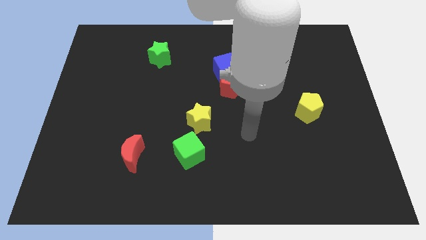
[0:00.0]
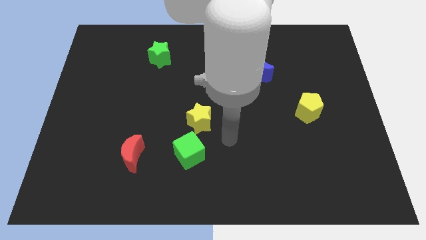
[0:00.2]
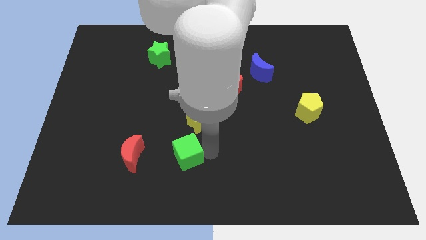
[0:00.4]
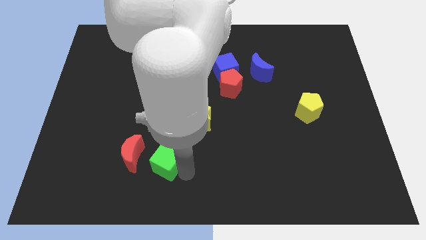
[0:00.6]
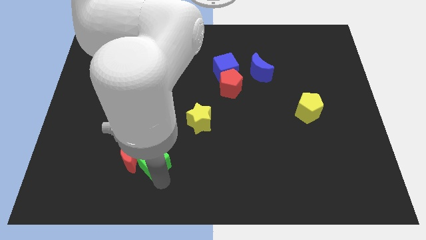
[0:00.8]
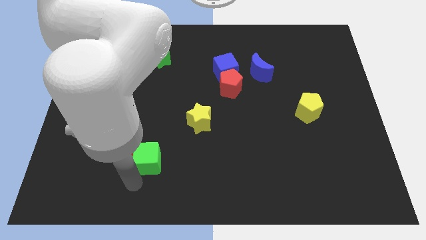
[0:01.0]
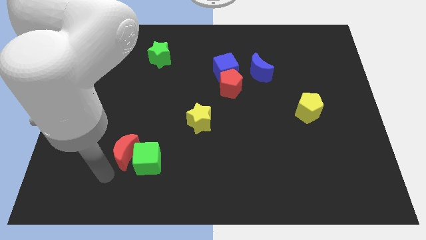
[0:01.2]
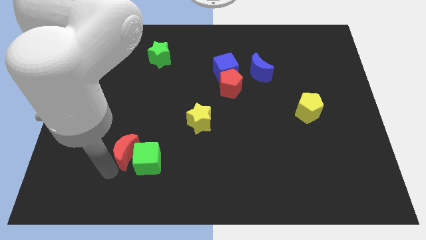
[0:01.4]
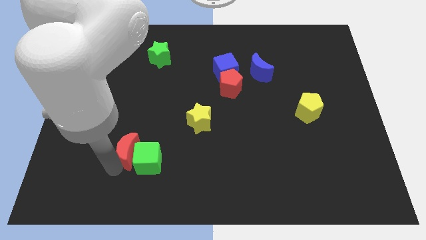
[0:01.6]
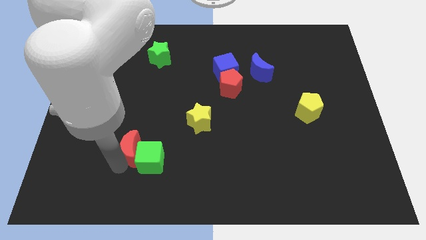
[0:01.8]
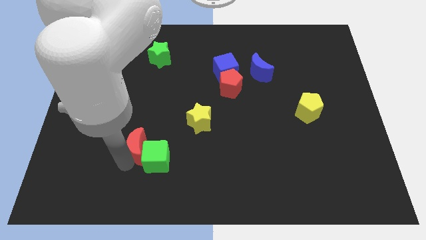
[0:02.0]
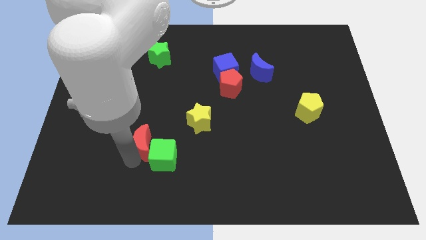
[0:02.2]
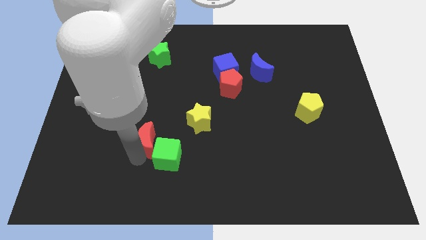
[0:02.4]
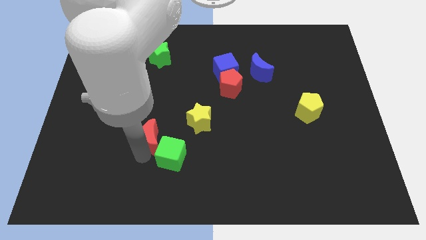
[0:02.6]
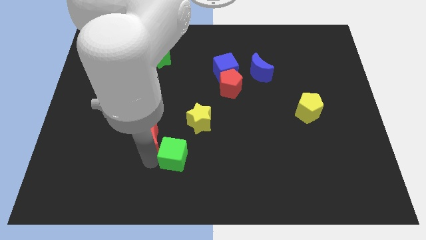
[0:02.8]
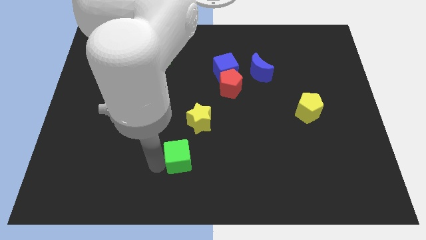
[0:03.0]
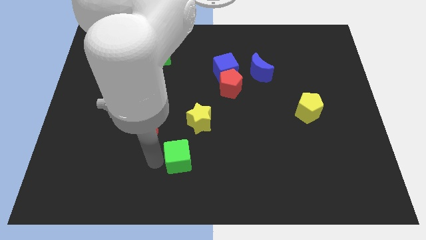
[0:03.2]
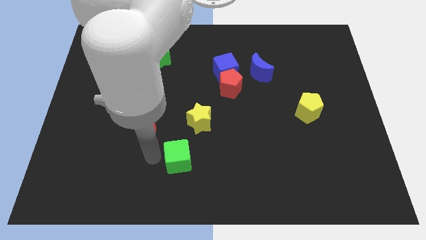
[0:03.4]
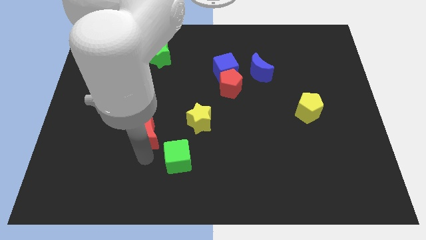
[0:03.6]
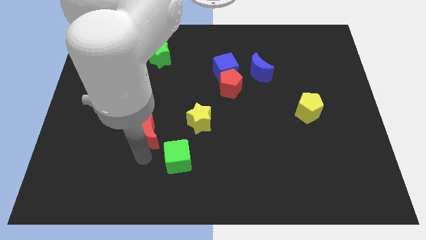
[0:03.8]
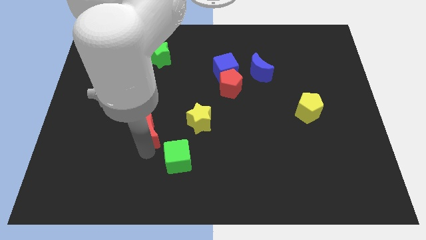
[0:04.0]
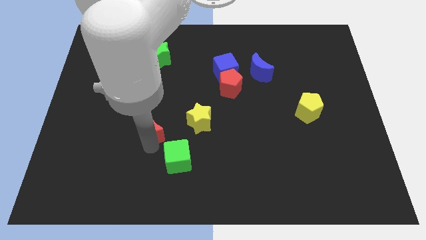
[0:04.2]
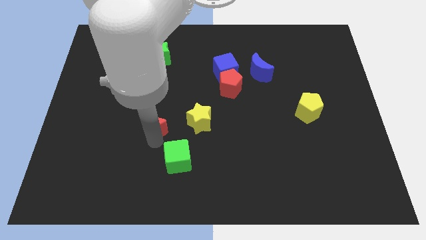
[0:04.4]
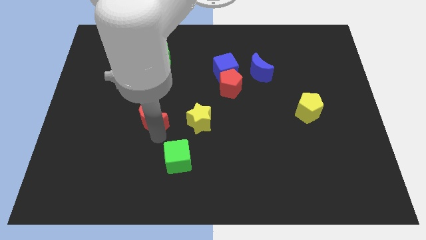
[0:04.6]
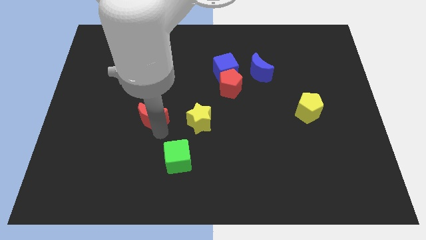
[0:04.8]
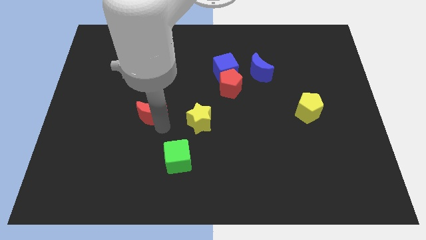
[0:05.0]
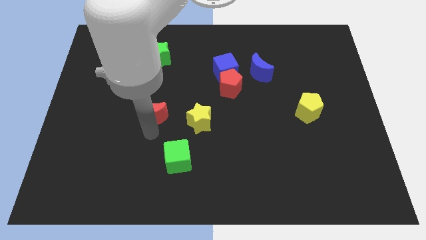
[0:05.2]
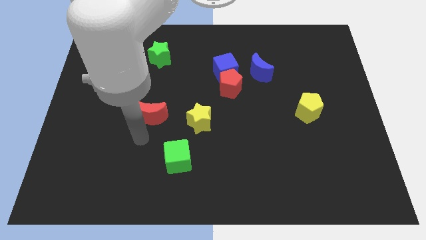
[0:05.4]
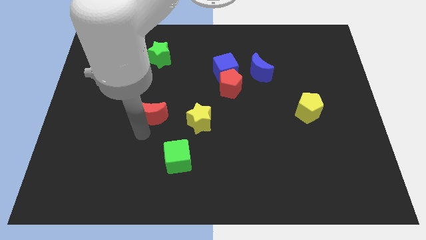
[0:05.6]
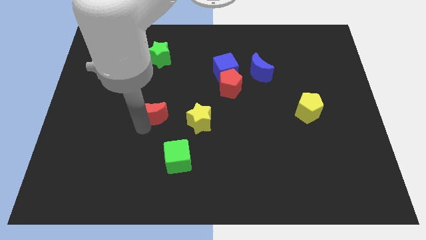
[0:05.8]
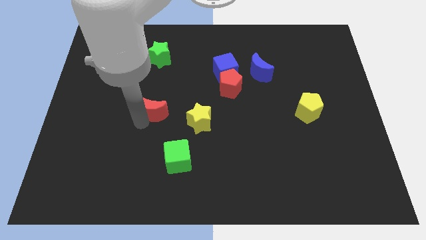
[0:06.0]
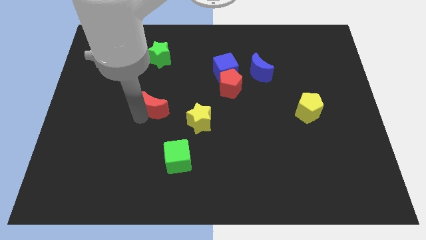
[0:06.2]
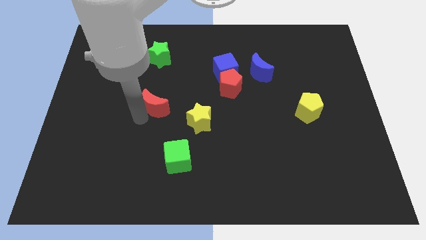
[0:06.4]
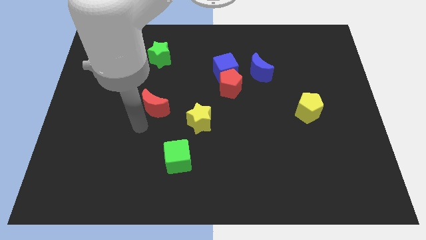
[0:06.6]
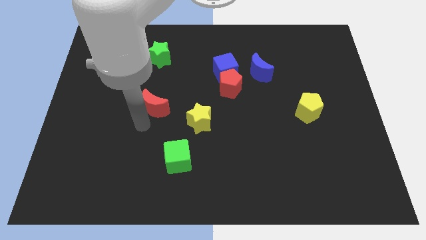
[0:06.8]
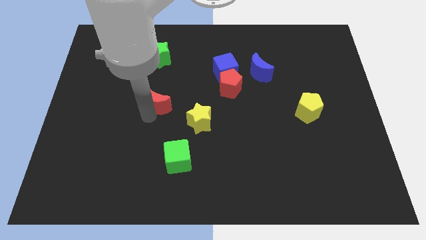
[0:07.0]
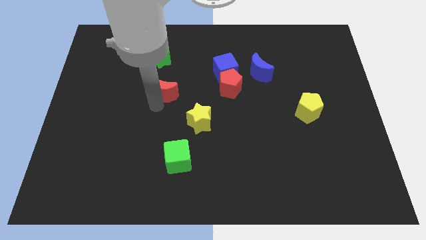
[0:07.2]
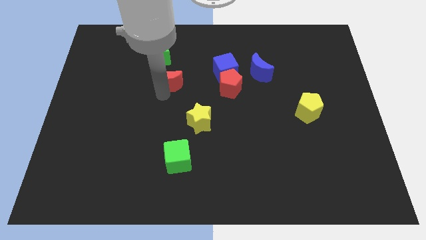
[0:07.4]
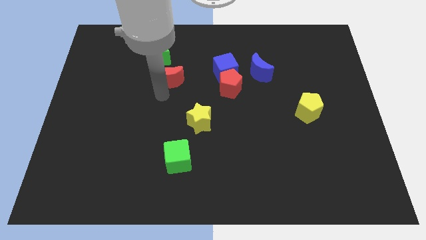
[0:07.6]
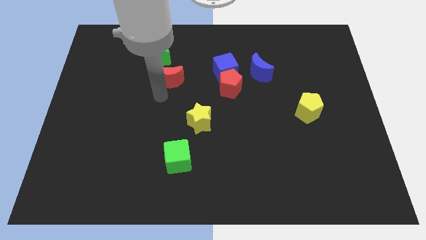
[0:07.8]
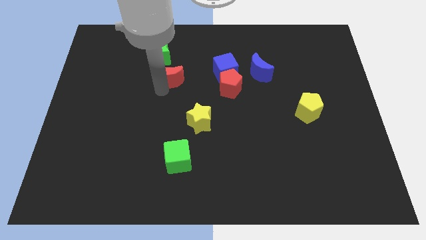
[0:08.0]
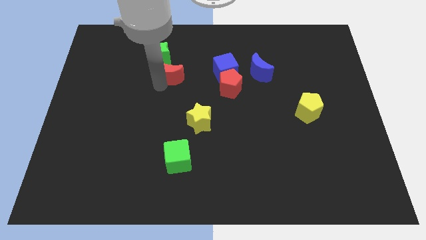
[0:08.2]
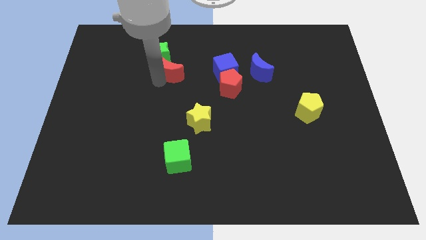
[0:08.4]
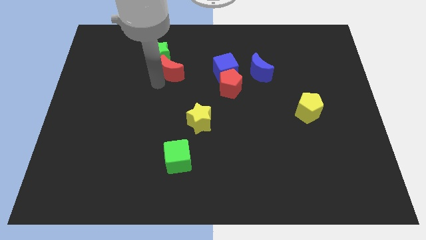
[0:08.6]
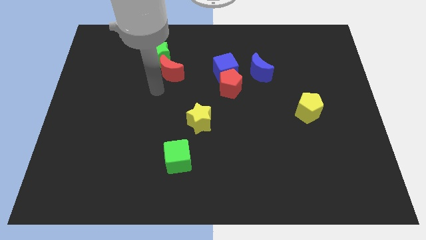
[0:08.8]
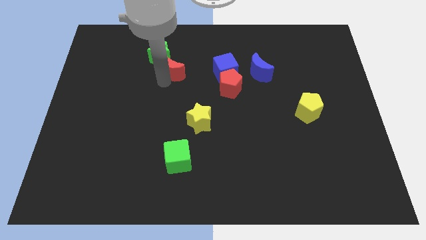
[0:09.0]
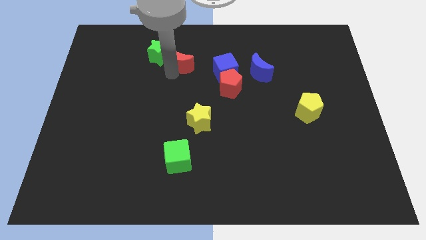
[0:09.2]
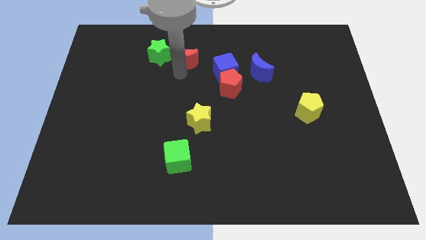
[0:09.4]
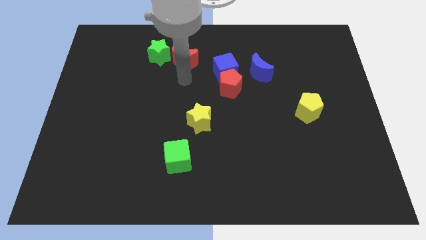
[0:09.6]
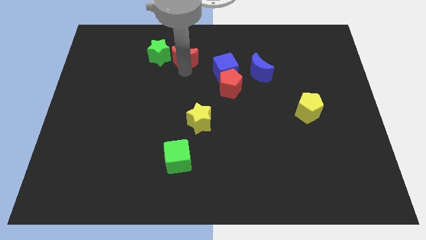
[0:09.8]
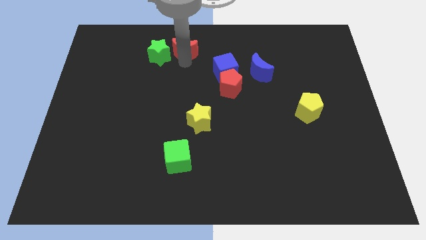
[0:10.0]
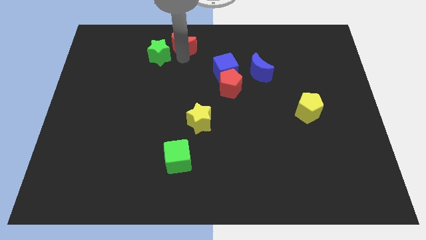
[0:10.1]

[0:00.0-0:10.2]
slide the red moon to the top side

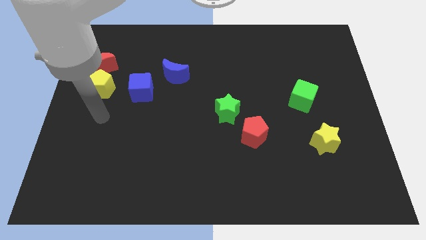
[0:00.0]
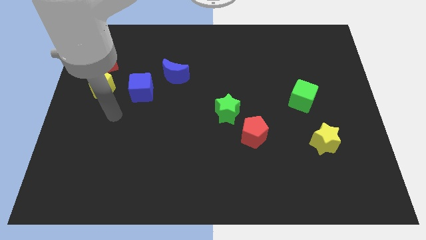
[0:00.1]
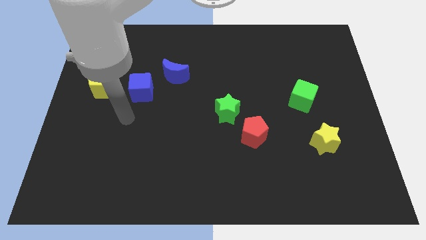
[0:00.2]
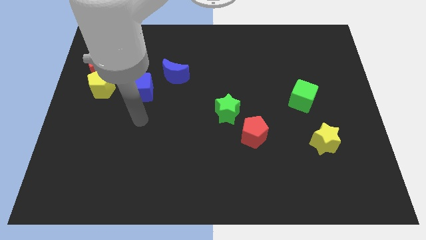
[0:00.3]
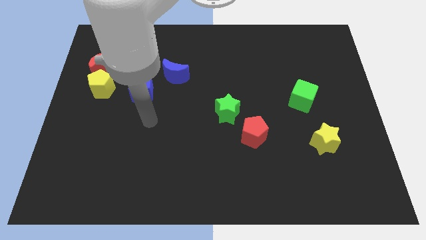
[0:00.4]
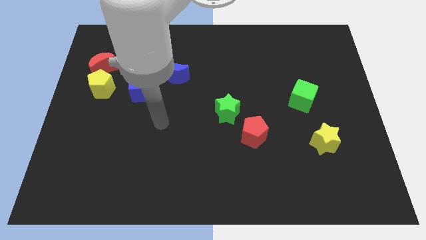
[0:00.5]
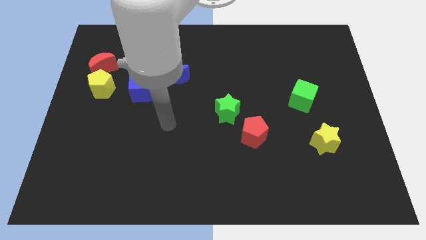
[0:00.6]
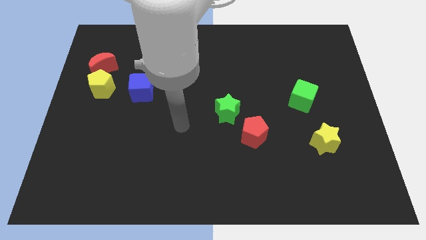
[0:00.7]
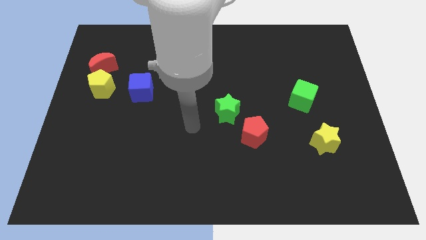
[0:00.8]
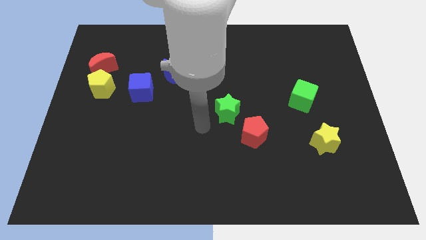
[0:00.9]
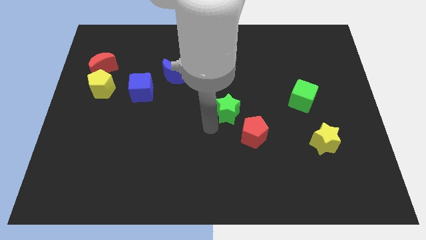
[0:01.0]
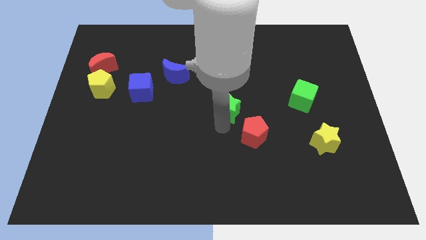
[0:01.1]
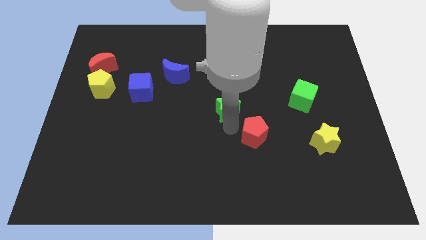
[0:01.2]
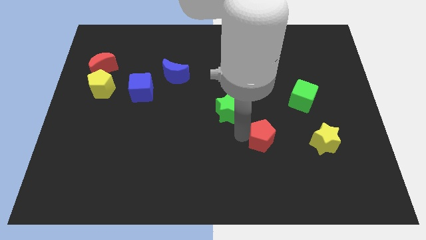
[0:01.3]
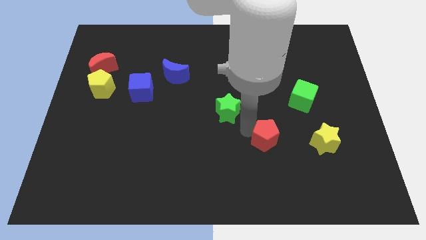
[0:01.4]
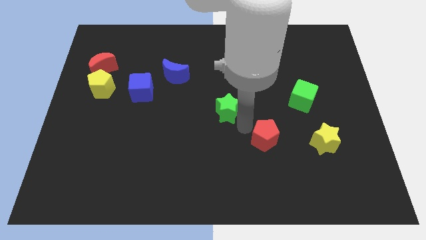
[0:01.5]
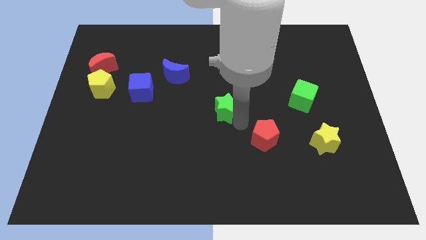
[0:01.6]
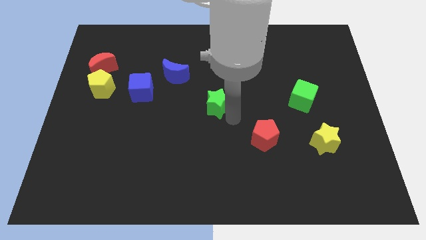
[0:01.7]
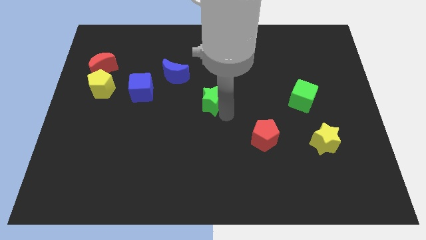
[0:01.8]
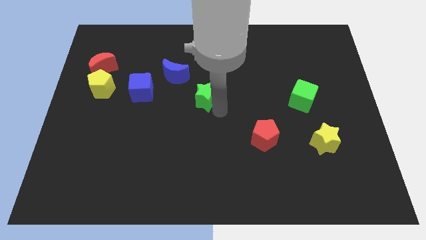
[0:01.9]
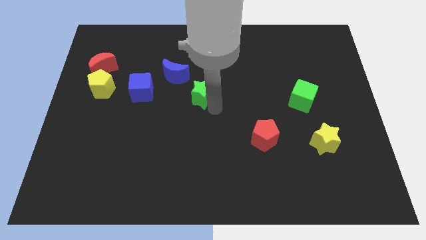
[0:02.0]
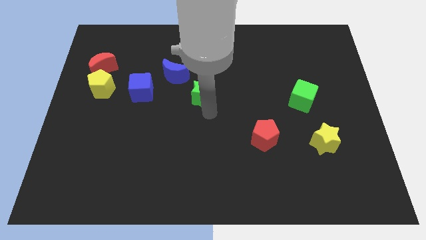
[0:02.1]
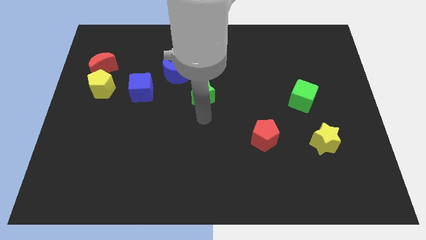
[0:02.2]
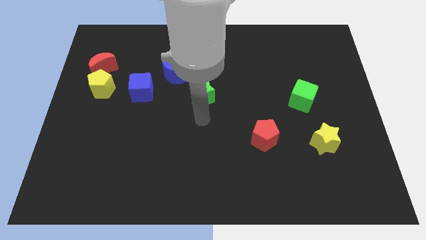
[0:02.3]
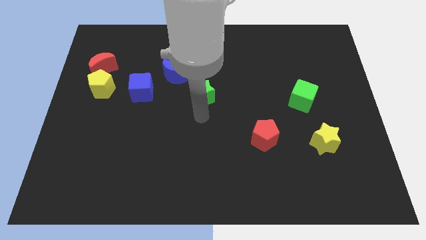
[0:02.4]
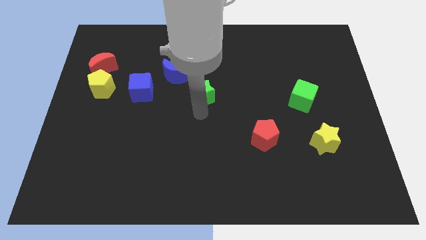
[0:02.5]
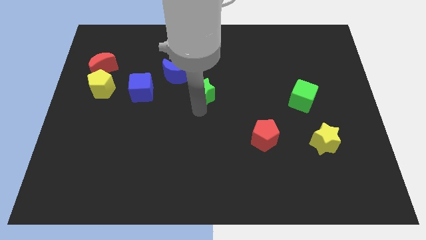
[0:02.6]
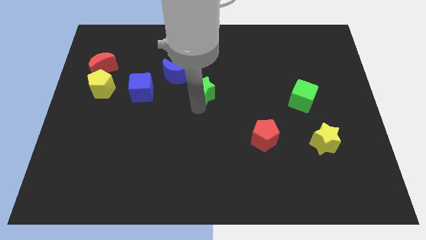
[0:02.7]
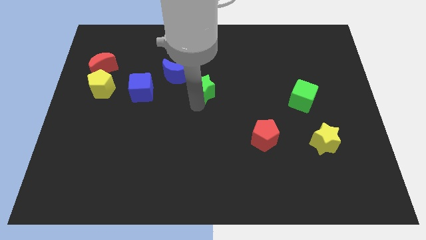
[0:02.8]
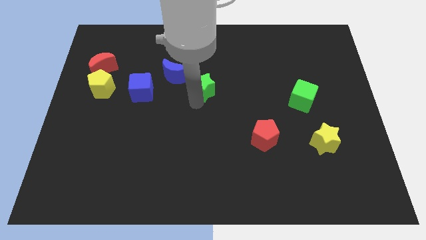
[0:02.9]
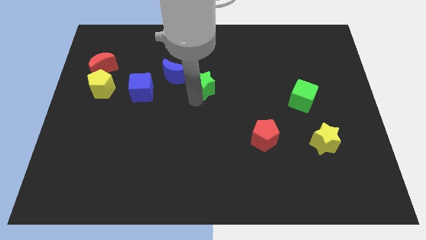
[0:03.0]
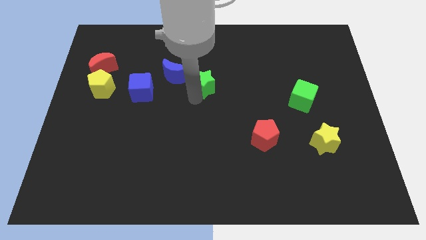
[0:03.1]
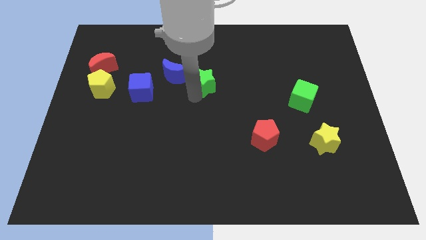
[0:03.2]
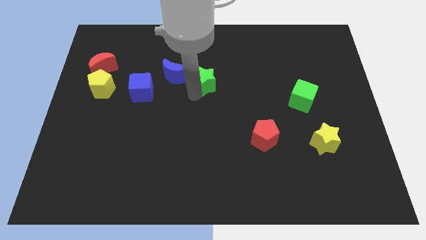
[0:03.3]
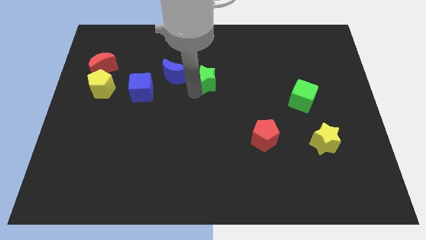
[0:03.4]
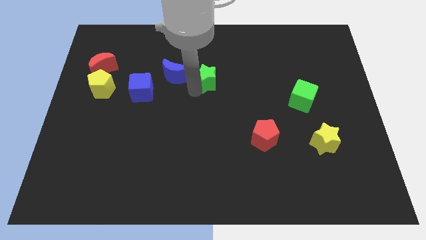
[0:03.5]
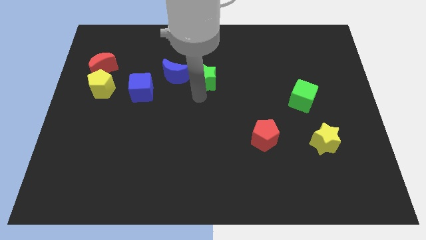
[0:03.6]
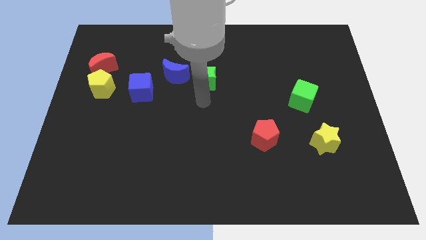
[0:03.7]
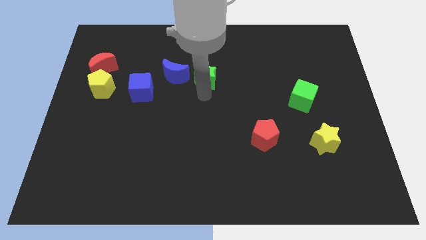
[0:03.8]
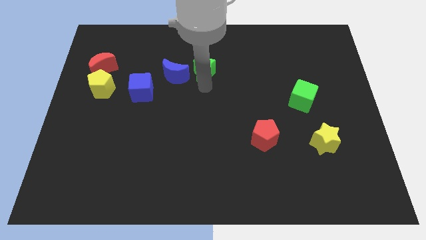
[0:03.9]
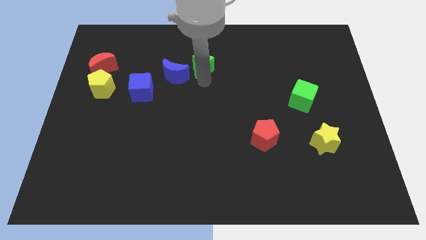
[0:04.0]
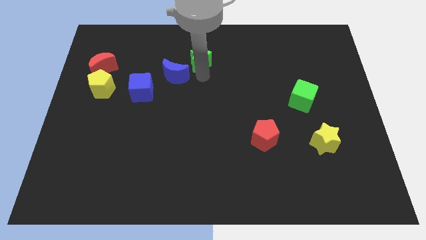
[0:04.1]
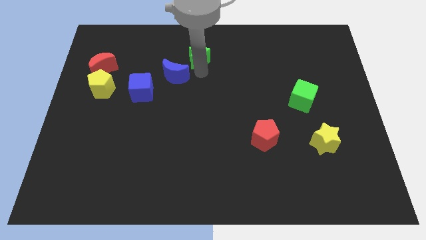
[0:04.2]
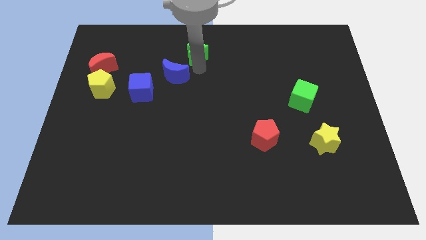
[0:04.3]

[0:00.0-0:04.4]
push the green star to the top side
